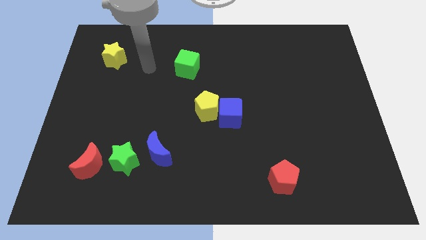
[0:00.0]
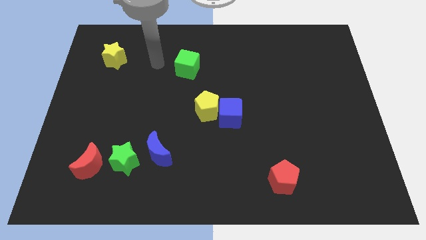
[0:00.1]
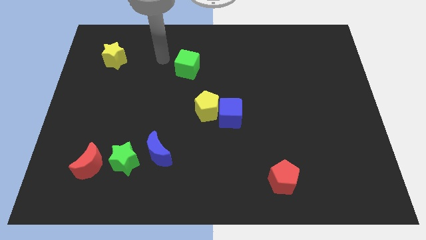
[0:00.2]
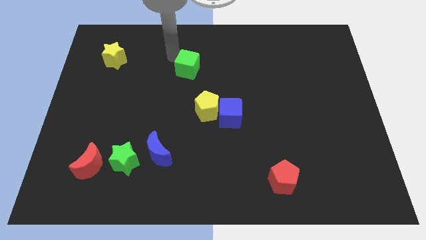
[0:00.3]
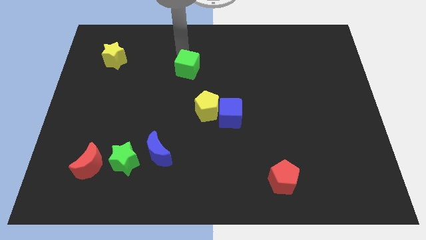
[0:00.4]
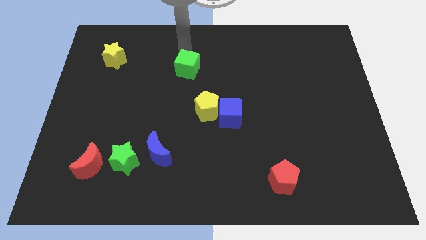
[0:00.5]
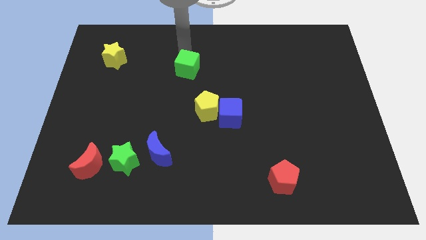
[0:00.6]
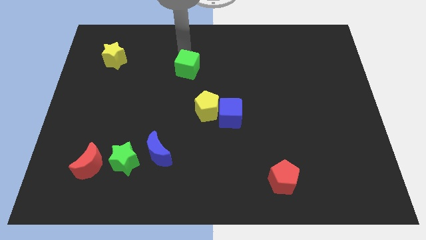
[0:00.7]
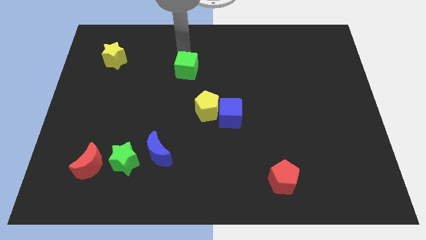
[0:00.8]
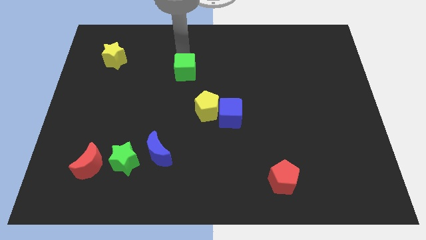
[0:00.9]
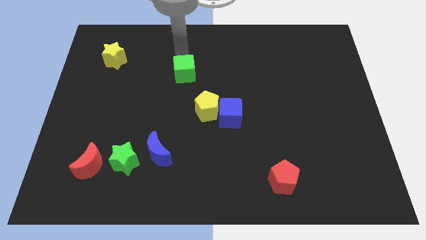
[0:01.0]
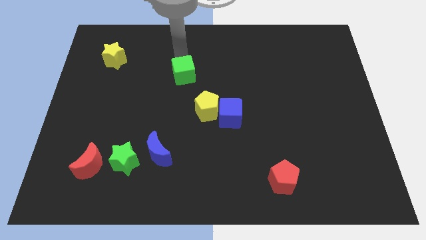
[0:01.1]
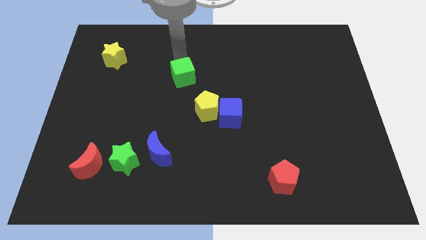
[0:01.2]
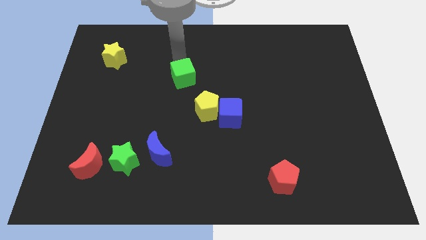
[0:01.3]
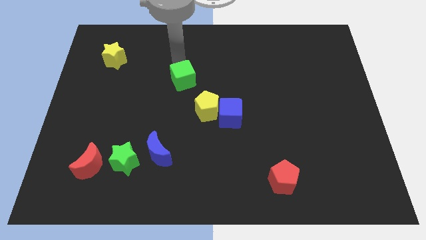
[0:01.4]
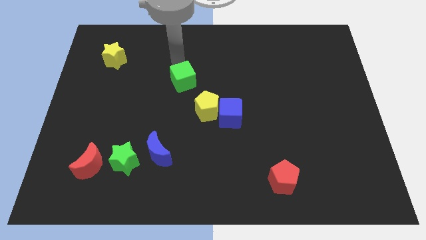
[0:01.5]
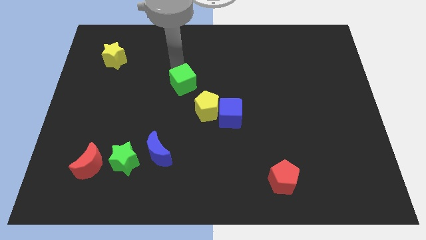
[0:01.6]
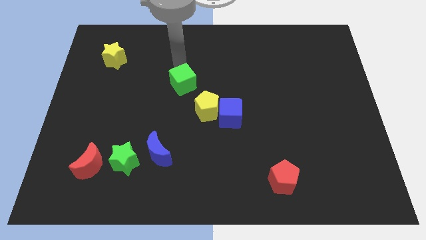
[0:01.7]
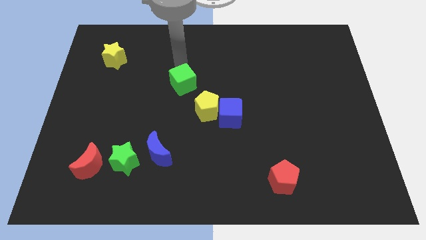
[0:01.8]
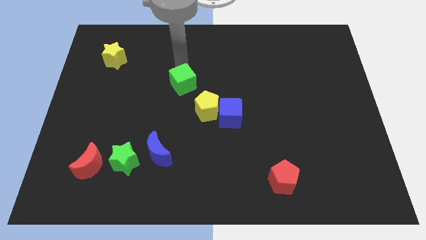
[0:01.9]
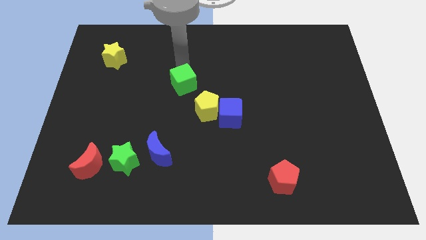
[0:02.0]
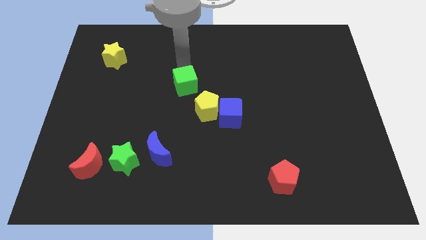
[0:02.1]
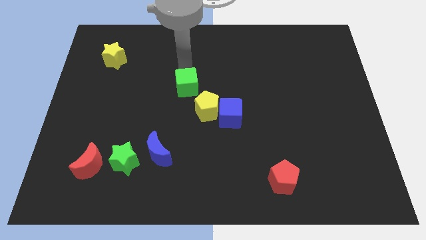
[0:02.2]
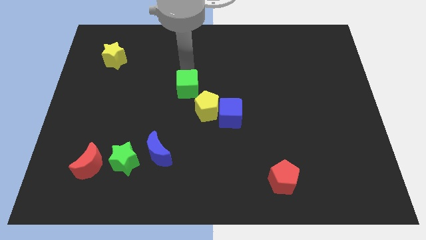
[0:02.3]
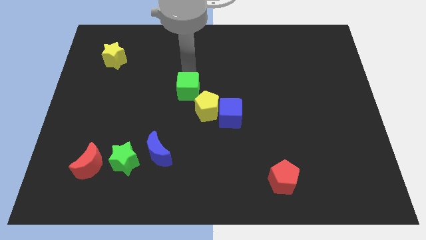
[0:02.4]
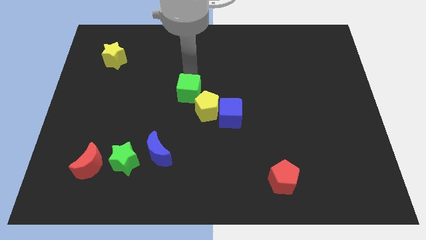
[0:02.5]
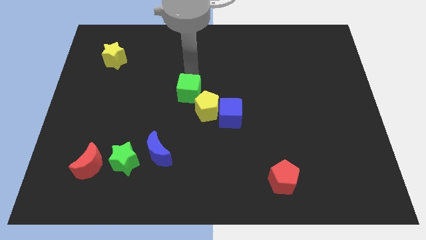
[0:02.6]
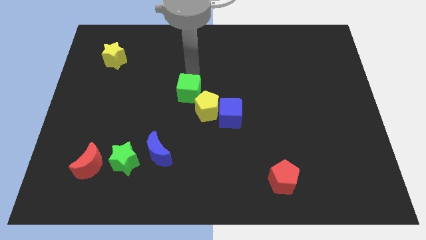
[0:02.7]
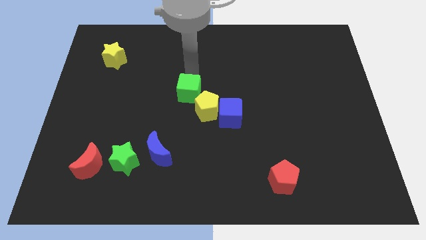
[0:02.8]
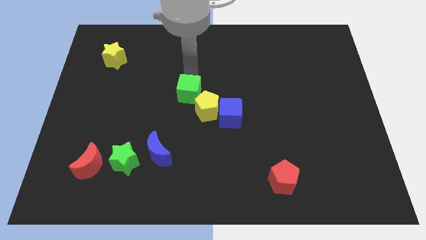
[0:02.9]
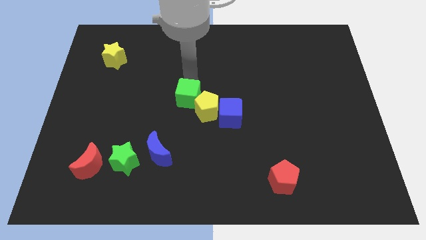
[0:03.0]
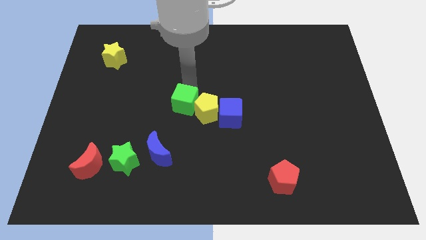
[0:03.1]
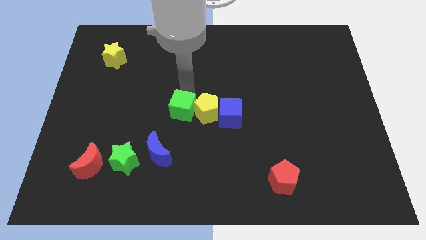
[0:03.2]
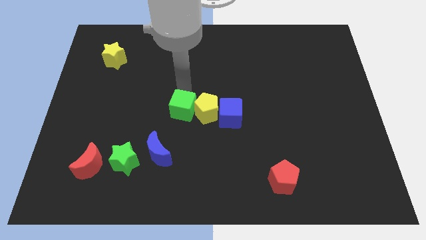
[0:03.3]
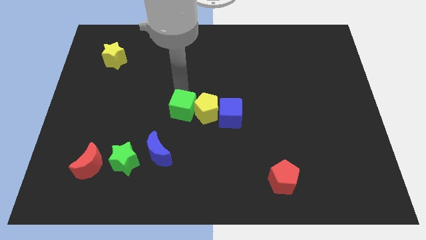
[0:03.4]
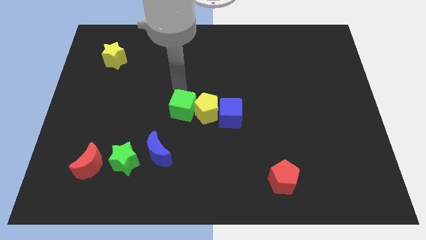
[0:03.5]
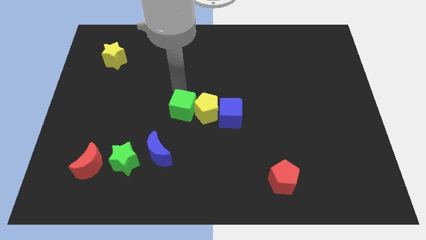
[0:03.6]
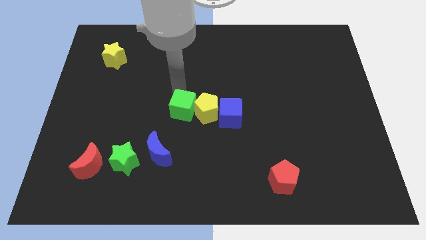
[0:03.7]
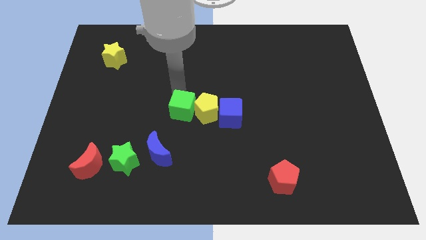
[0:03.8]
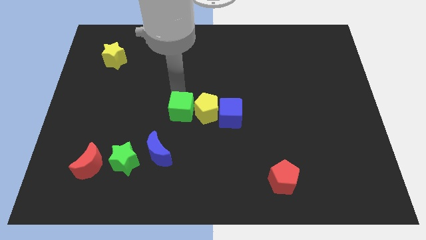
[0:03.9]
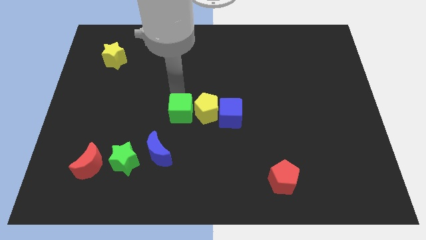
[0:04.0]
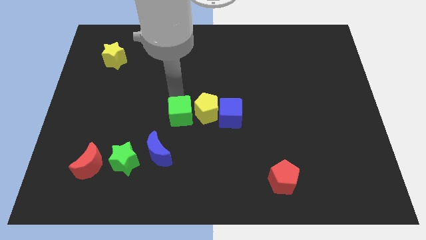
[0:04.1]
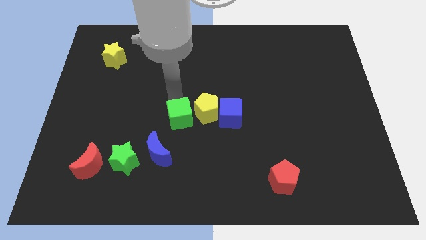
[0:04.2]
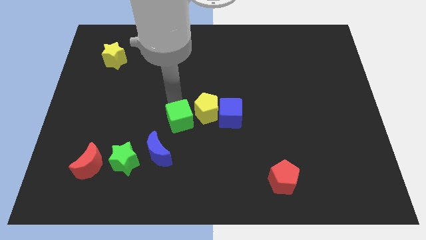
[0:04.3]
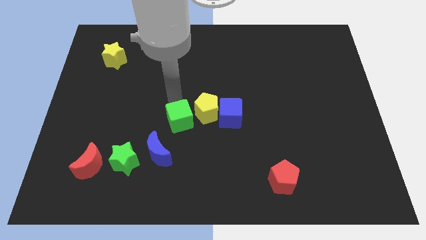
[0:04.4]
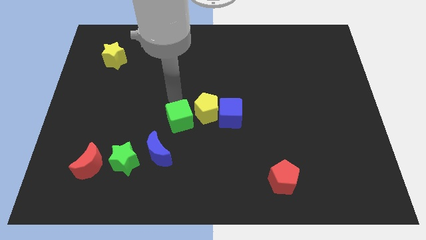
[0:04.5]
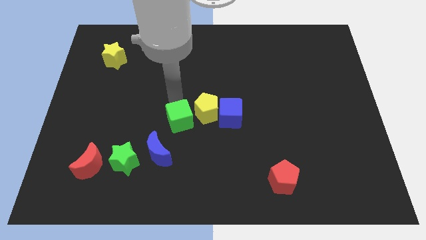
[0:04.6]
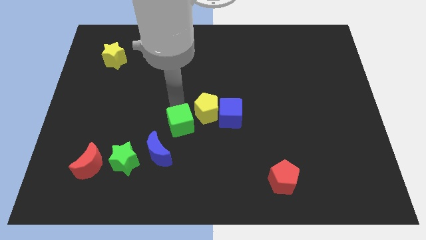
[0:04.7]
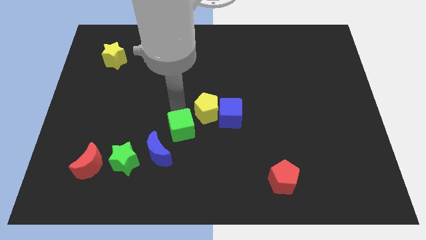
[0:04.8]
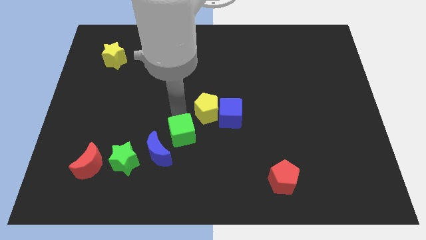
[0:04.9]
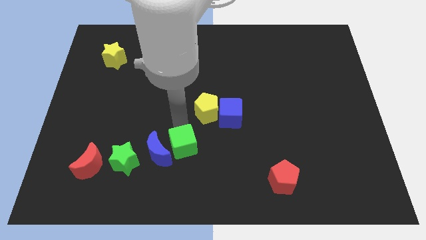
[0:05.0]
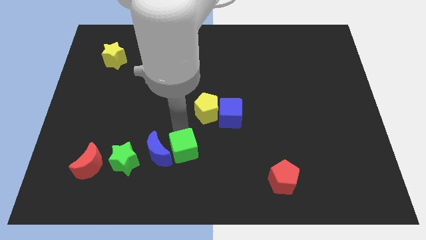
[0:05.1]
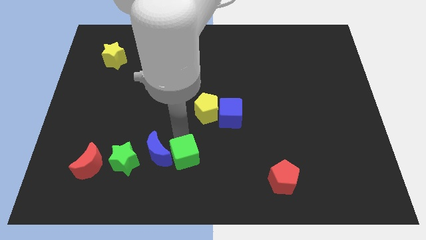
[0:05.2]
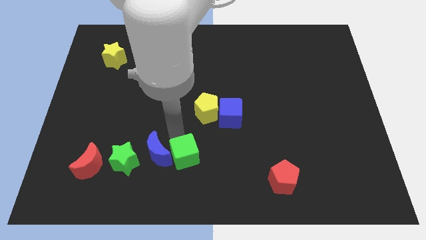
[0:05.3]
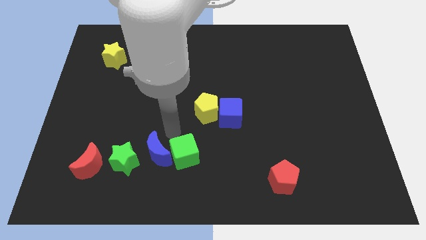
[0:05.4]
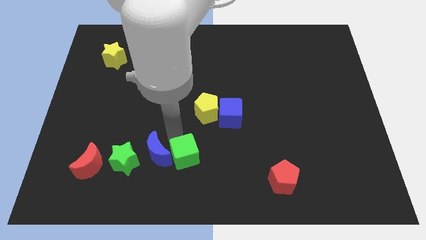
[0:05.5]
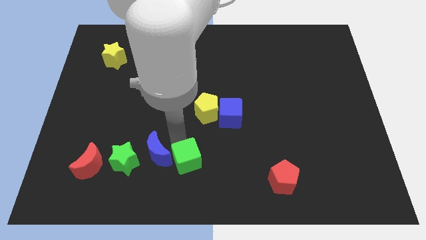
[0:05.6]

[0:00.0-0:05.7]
put the green cube to the bottom side
